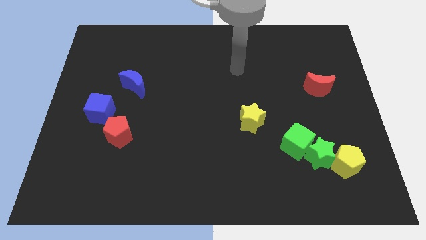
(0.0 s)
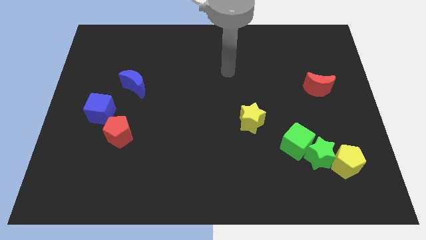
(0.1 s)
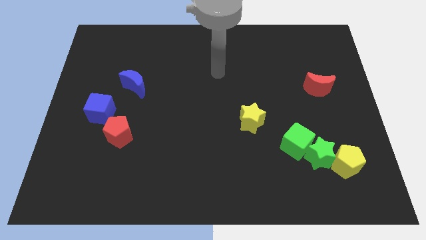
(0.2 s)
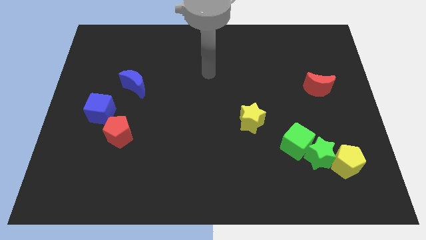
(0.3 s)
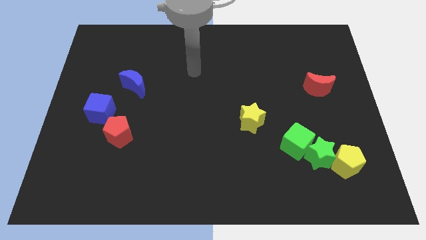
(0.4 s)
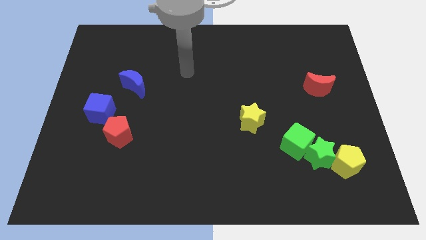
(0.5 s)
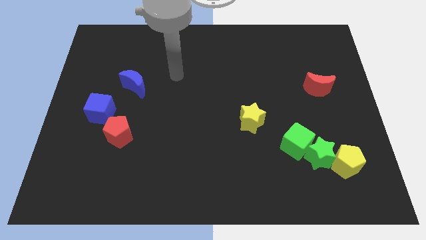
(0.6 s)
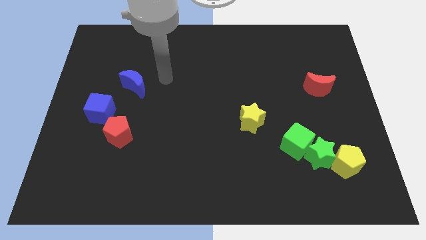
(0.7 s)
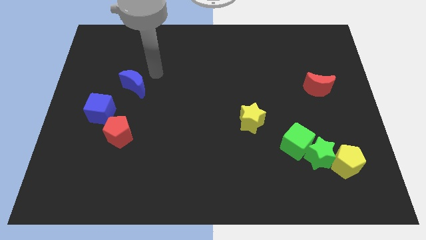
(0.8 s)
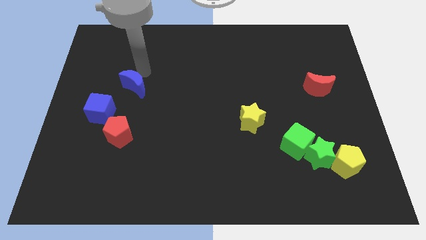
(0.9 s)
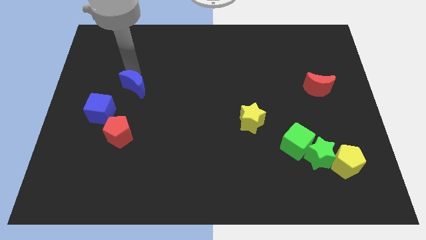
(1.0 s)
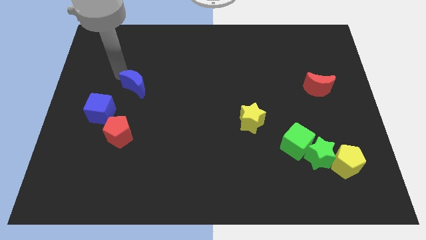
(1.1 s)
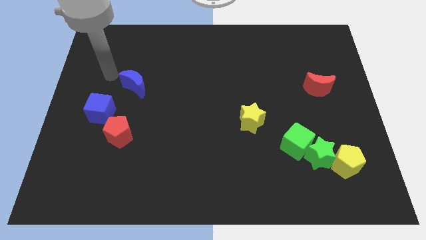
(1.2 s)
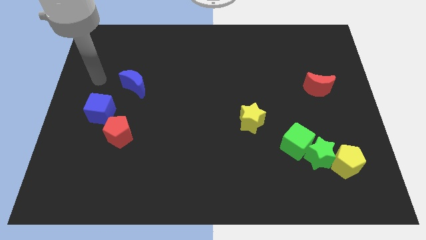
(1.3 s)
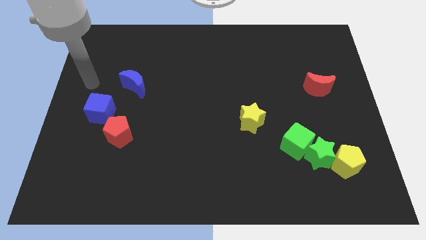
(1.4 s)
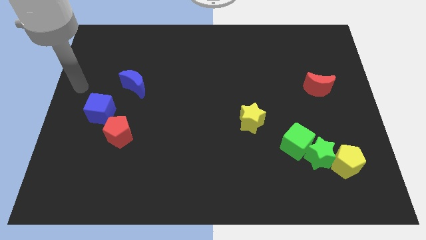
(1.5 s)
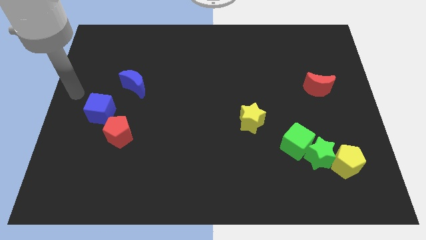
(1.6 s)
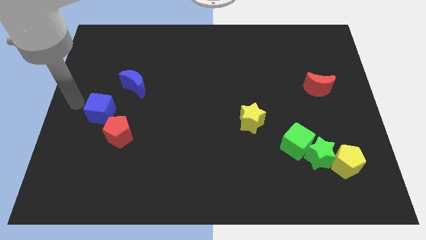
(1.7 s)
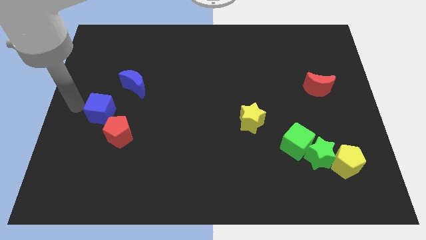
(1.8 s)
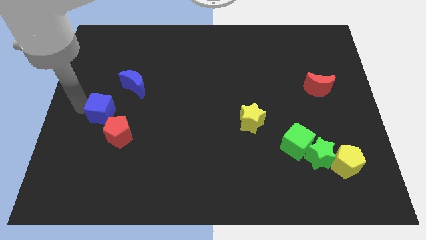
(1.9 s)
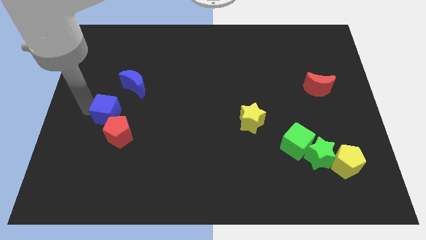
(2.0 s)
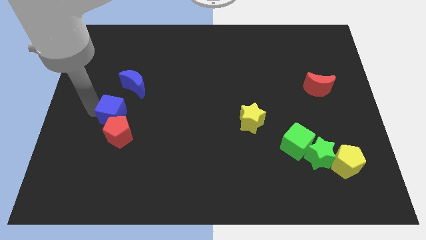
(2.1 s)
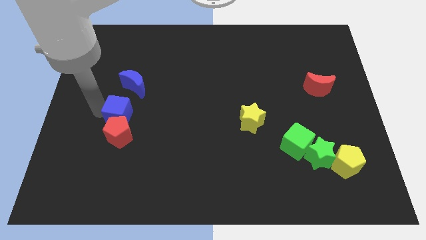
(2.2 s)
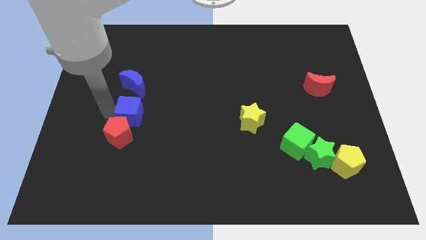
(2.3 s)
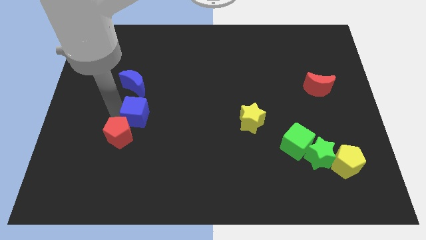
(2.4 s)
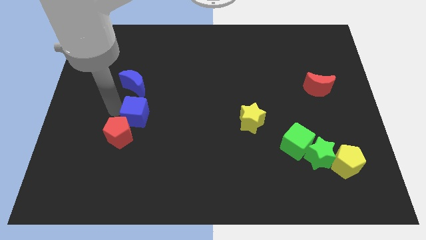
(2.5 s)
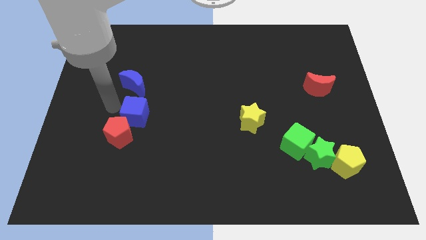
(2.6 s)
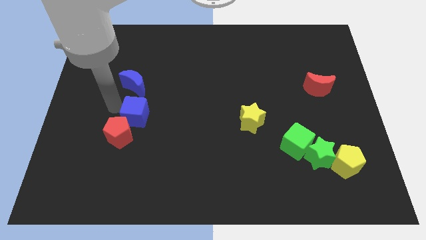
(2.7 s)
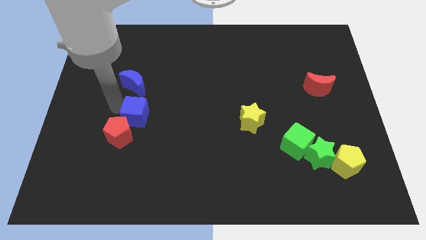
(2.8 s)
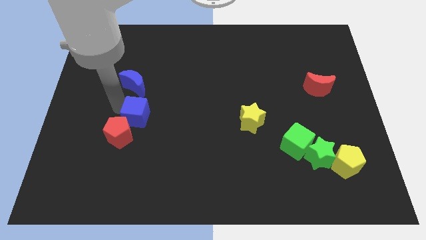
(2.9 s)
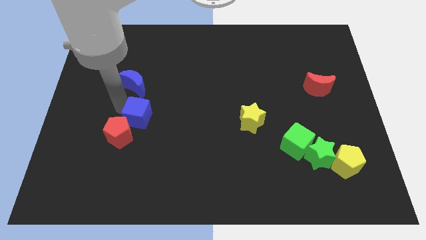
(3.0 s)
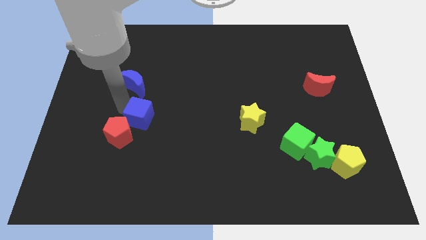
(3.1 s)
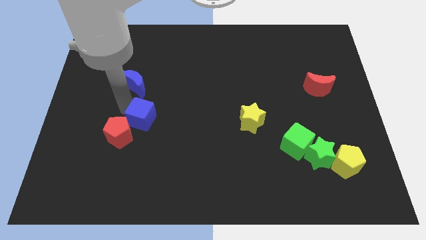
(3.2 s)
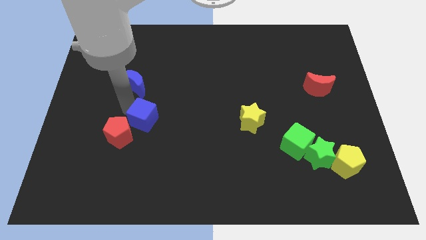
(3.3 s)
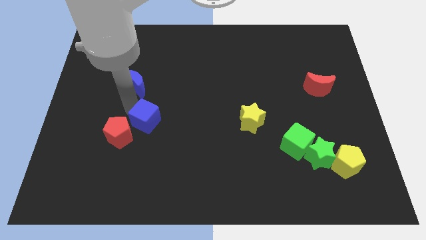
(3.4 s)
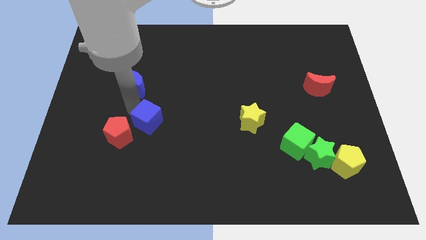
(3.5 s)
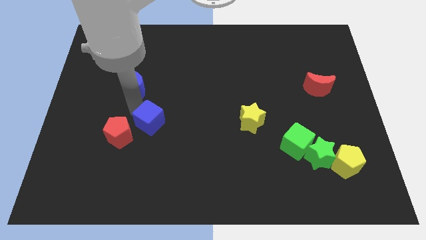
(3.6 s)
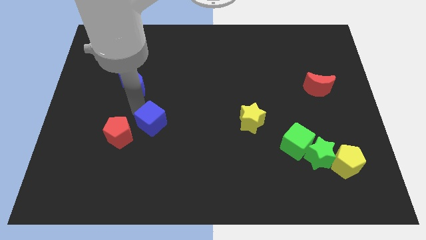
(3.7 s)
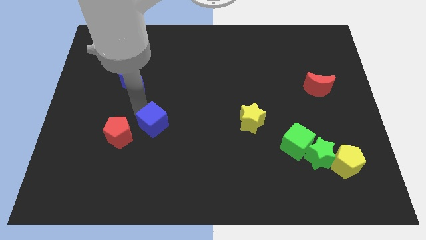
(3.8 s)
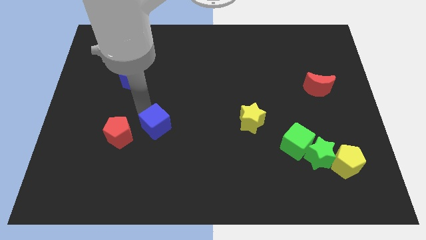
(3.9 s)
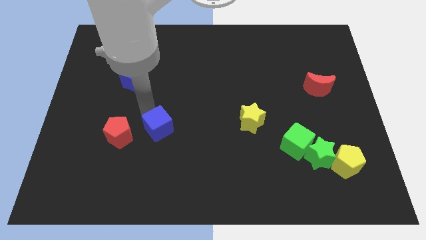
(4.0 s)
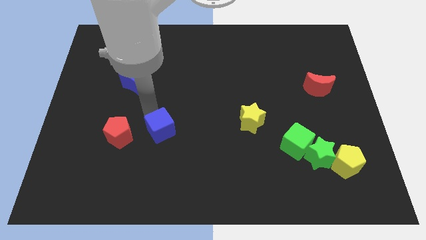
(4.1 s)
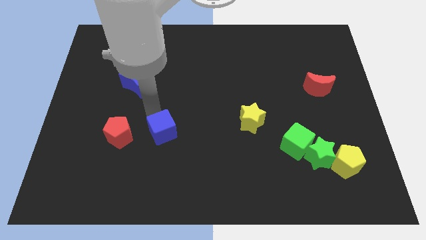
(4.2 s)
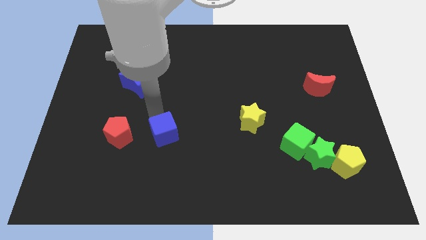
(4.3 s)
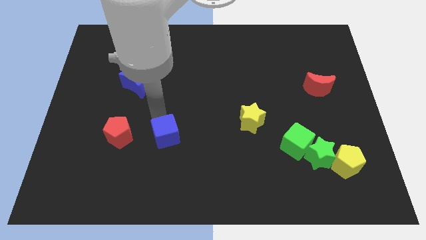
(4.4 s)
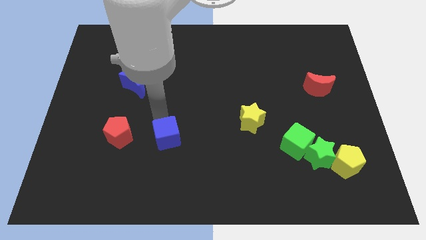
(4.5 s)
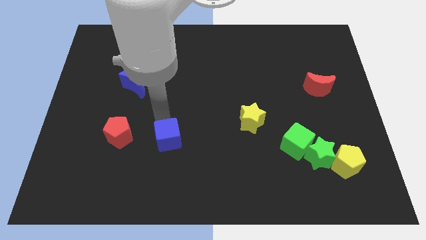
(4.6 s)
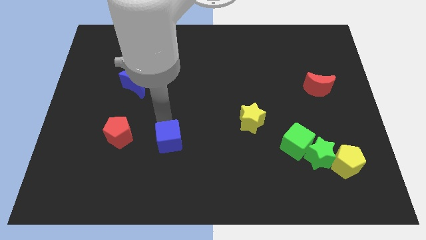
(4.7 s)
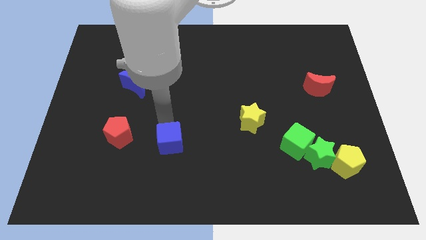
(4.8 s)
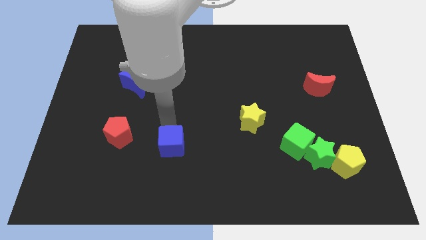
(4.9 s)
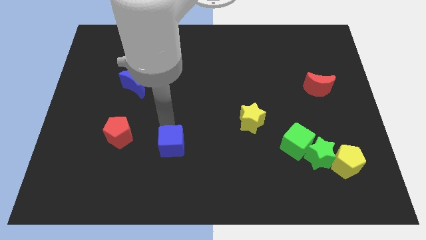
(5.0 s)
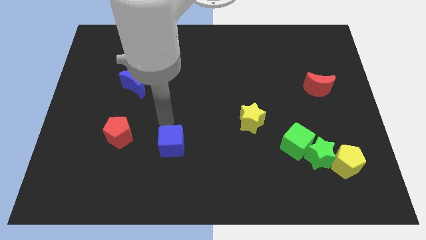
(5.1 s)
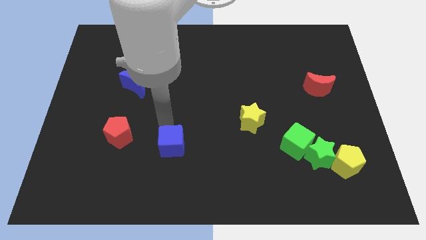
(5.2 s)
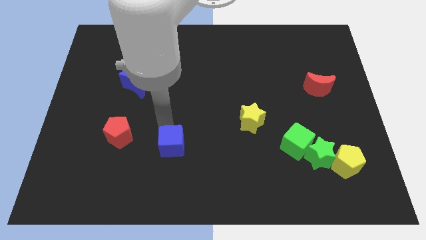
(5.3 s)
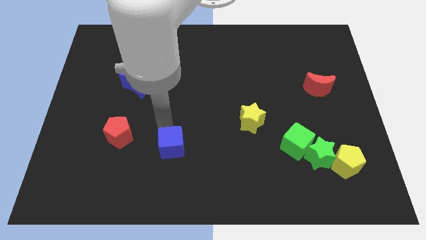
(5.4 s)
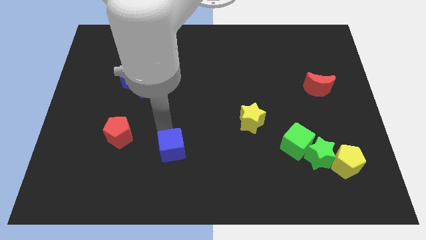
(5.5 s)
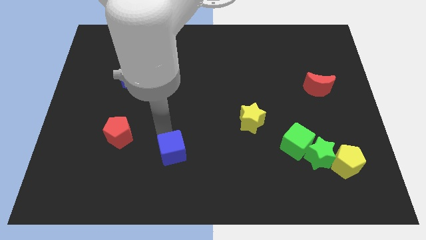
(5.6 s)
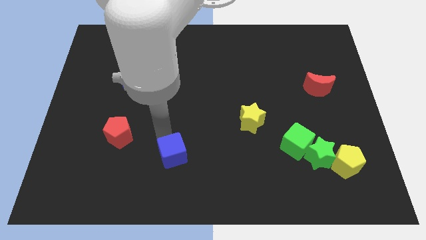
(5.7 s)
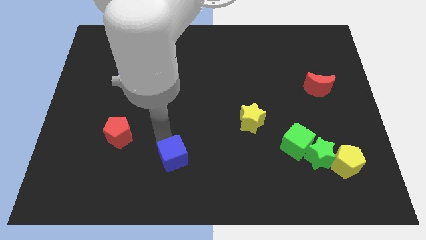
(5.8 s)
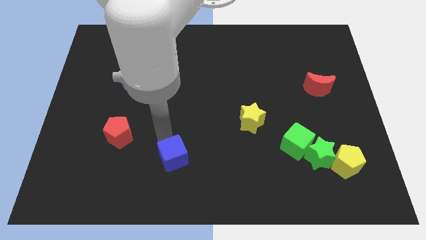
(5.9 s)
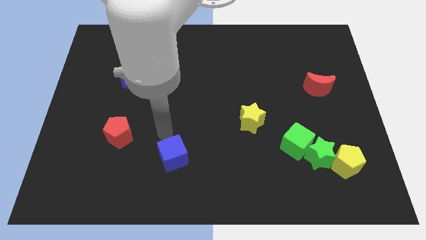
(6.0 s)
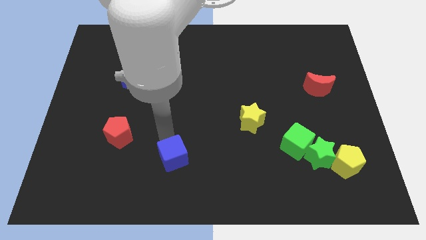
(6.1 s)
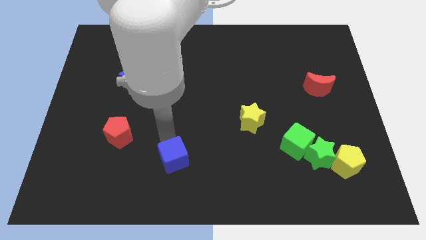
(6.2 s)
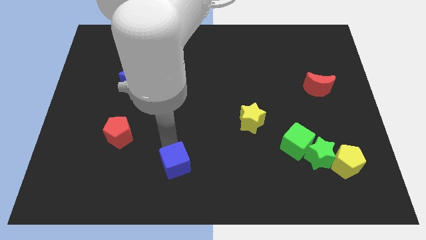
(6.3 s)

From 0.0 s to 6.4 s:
put the blue cube to the bottom
